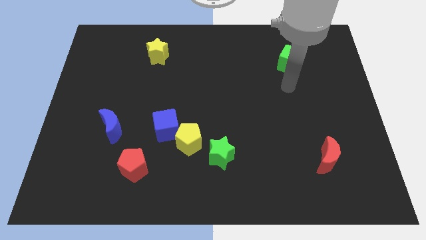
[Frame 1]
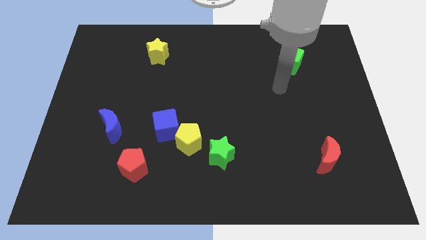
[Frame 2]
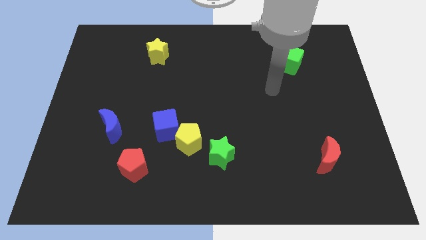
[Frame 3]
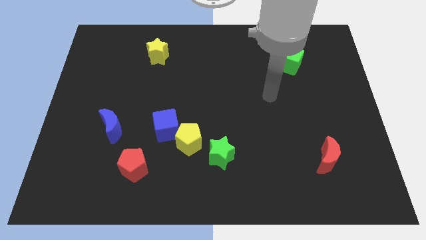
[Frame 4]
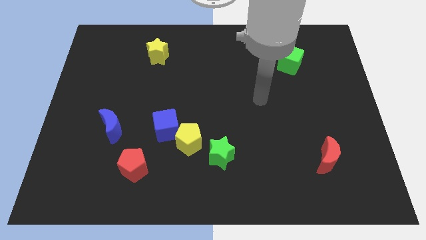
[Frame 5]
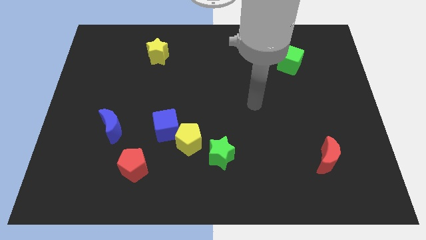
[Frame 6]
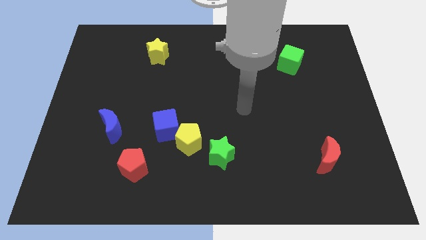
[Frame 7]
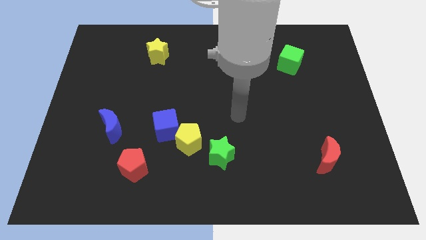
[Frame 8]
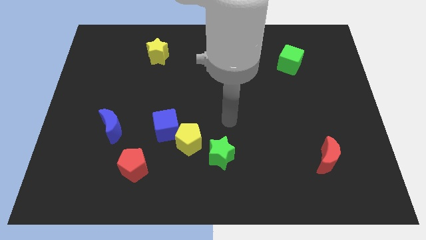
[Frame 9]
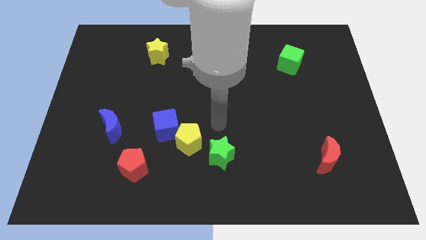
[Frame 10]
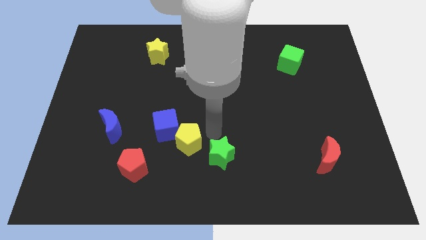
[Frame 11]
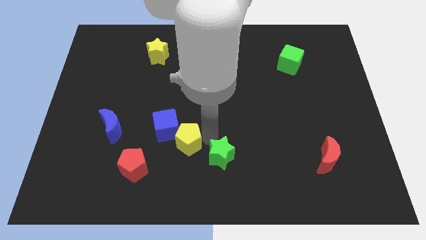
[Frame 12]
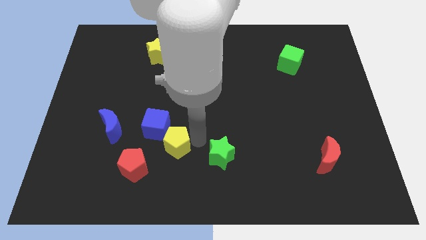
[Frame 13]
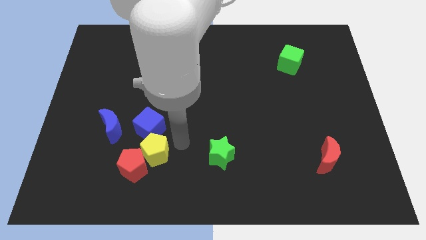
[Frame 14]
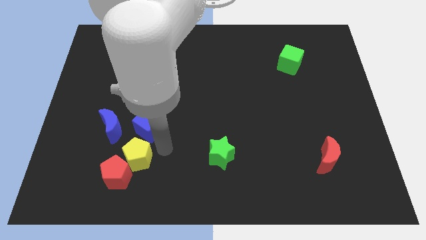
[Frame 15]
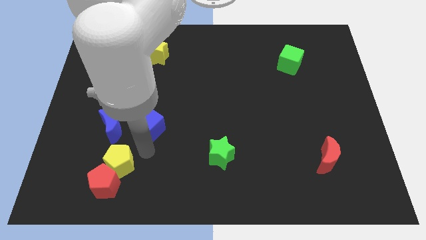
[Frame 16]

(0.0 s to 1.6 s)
pull the blue cube apart from the yellow pentagon

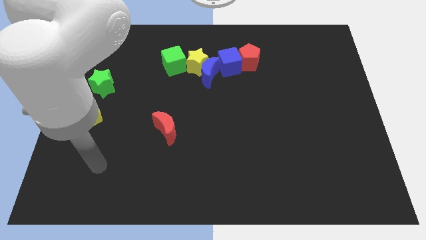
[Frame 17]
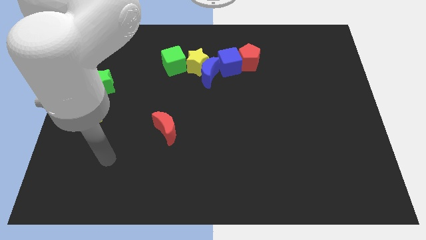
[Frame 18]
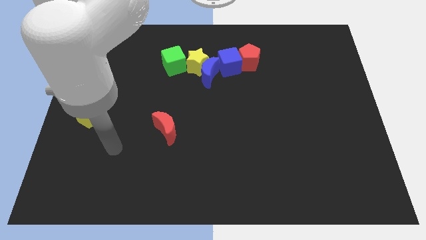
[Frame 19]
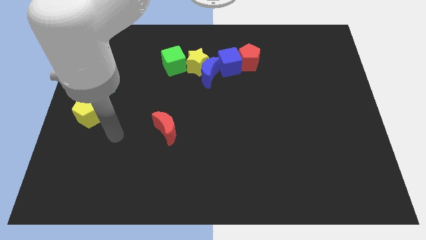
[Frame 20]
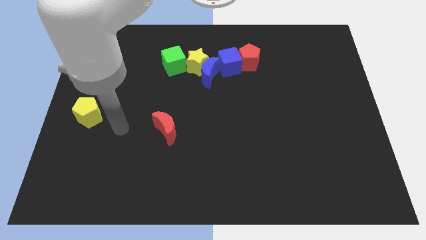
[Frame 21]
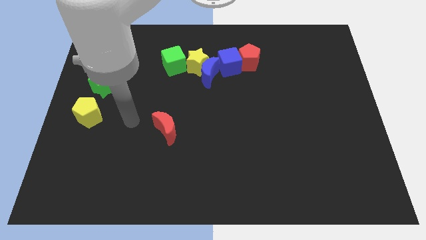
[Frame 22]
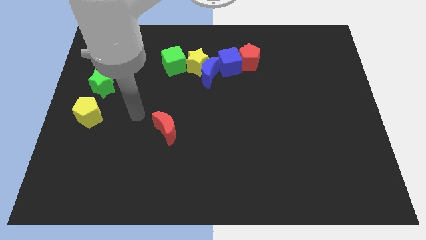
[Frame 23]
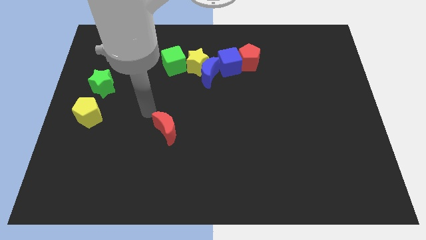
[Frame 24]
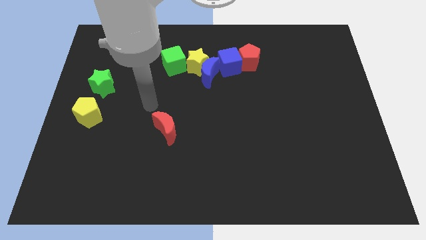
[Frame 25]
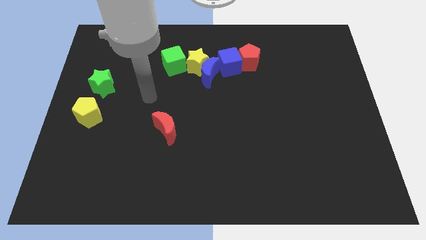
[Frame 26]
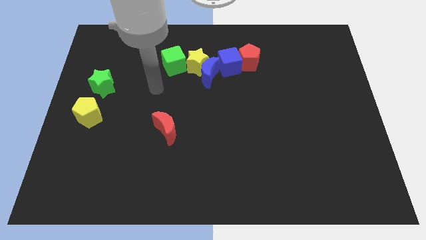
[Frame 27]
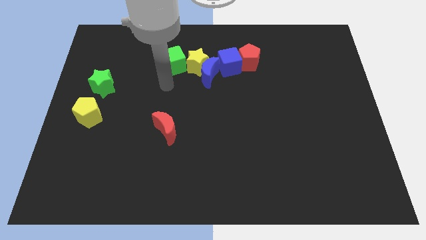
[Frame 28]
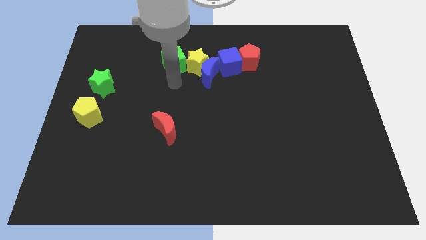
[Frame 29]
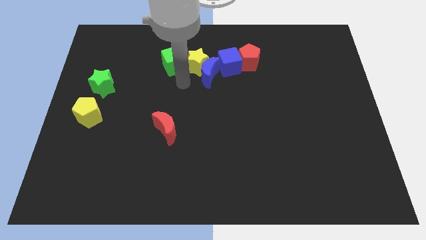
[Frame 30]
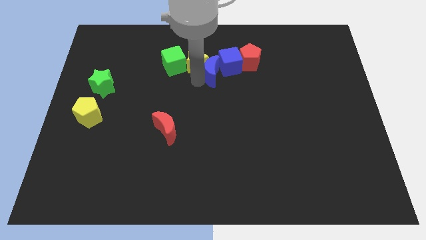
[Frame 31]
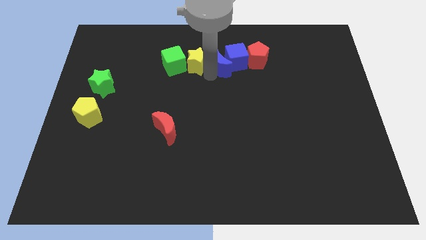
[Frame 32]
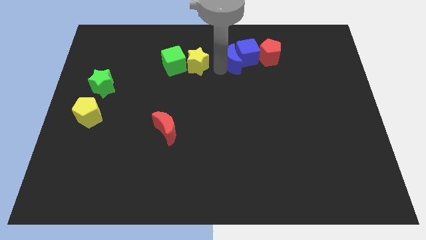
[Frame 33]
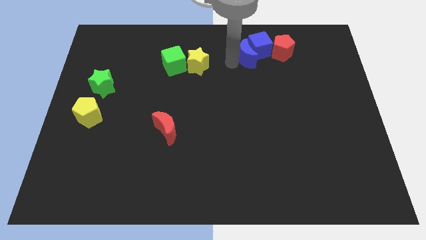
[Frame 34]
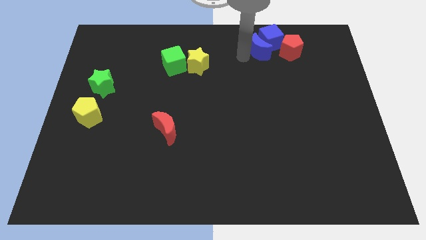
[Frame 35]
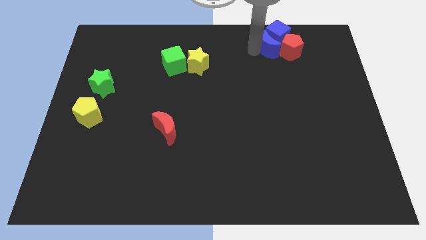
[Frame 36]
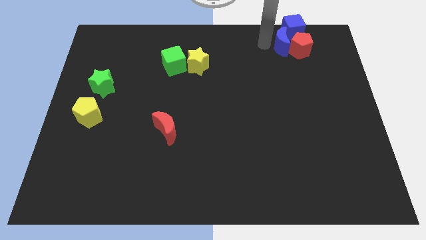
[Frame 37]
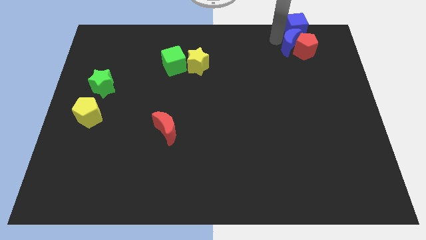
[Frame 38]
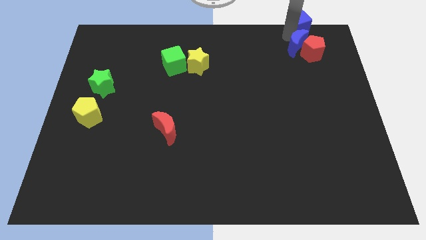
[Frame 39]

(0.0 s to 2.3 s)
separate the red pentagon from the blue cube

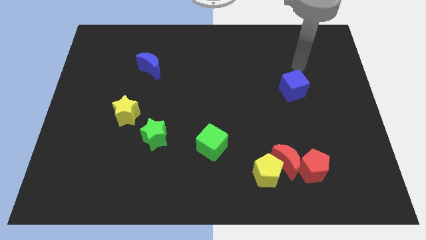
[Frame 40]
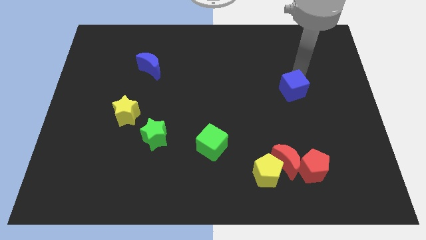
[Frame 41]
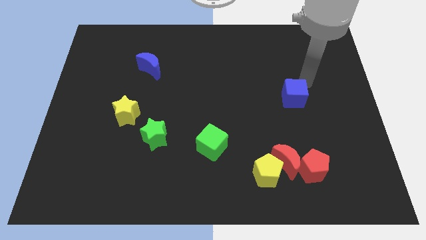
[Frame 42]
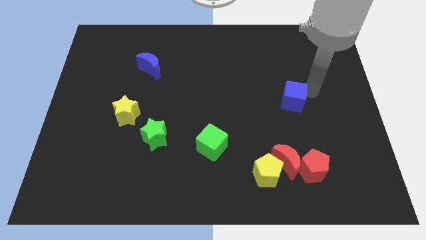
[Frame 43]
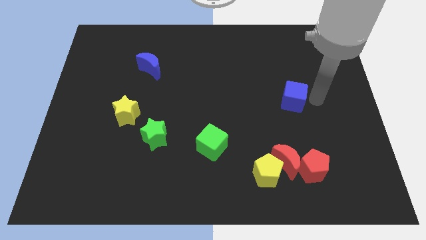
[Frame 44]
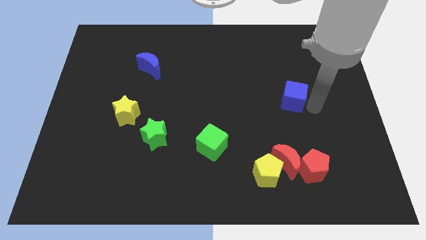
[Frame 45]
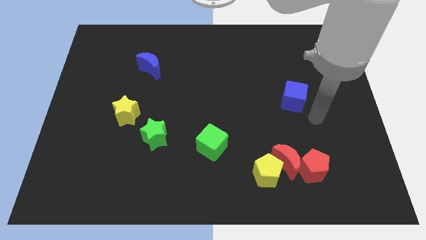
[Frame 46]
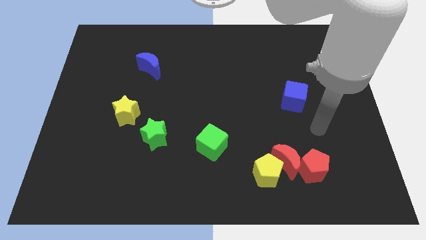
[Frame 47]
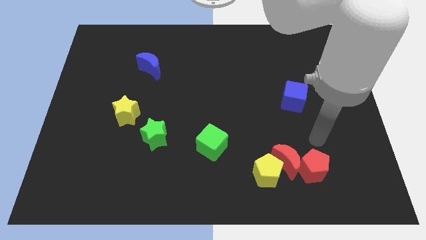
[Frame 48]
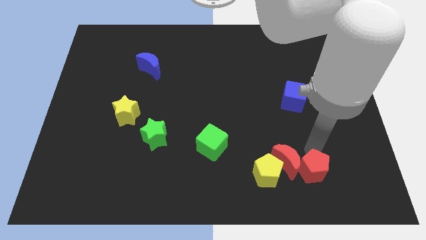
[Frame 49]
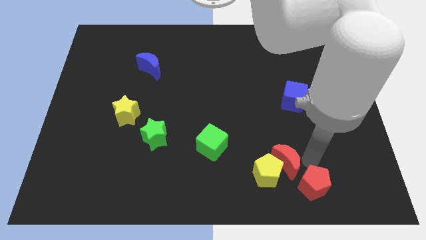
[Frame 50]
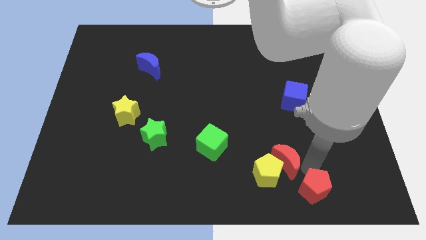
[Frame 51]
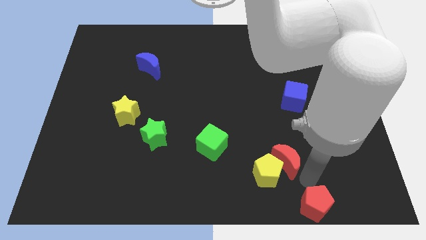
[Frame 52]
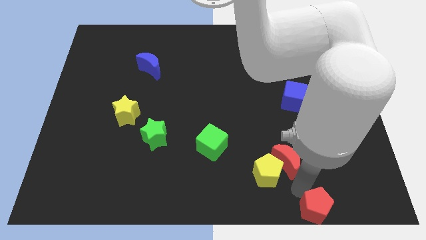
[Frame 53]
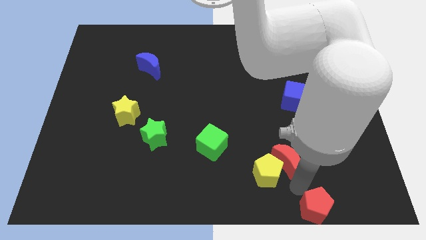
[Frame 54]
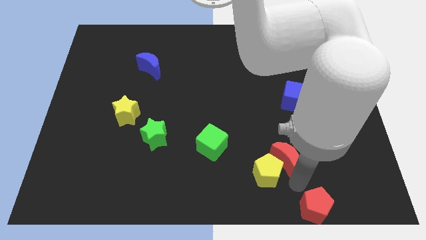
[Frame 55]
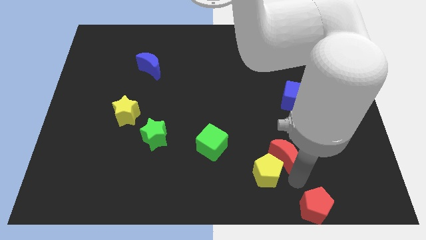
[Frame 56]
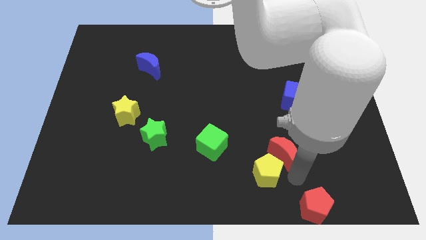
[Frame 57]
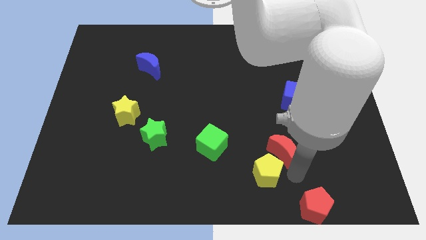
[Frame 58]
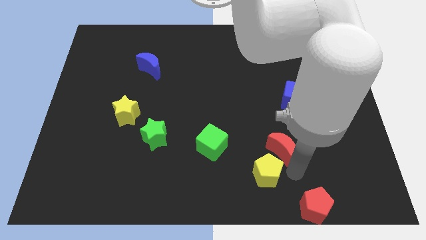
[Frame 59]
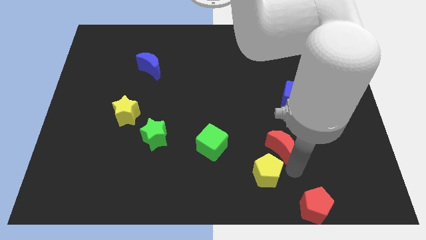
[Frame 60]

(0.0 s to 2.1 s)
move the red moon away from the yellow pentagon and red pentagon

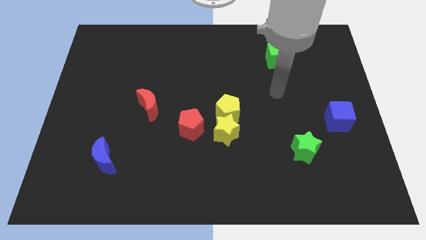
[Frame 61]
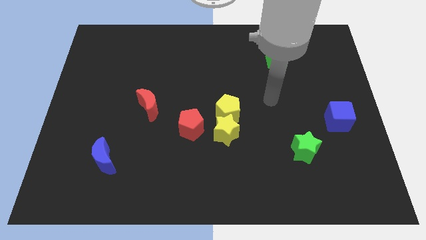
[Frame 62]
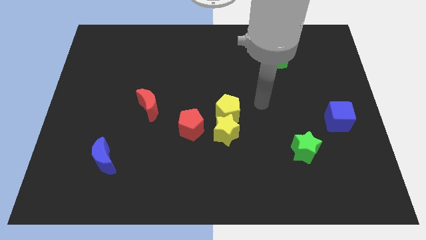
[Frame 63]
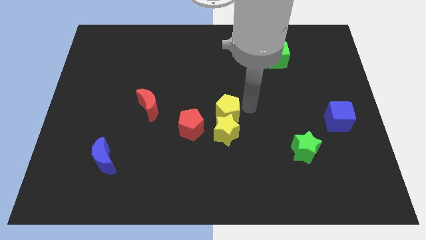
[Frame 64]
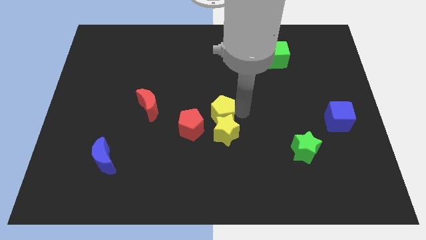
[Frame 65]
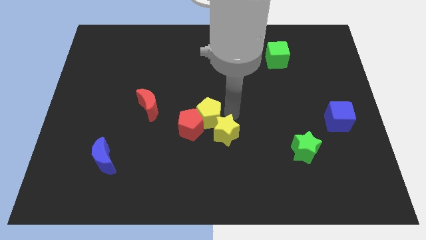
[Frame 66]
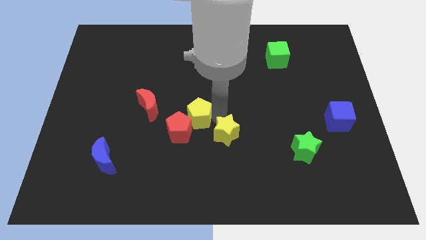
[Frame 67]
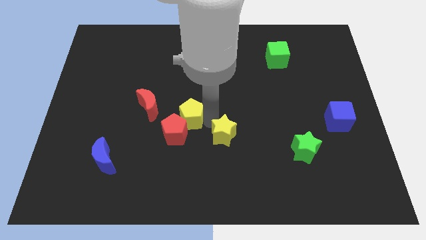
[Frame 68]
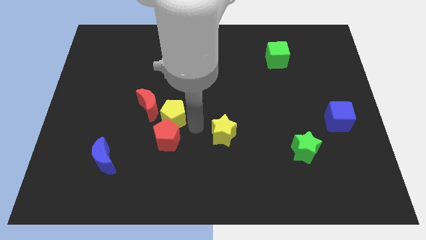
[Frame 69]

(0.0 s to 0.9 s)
move the yellow star away from the yellow pentagon and red pentagon

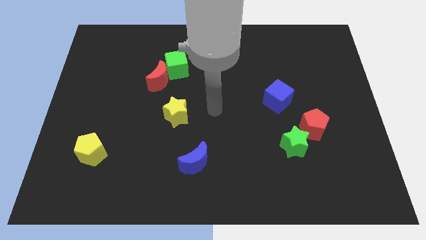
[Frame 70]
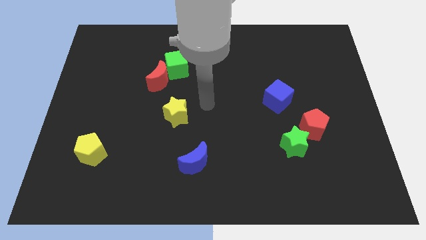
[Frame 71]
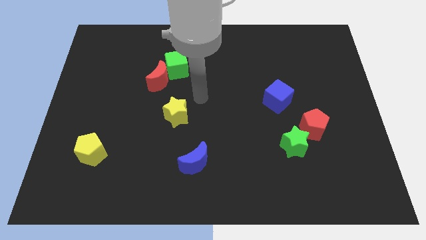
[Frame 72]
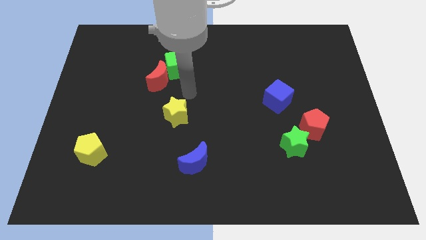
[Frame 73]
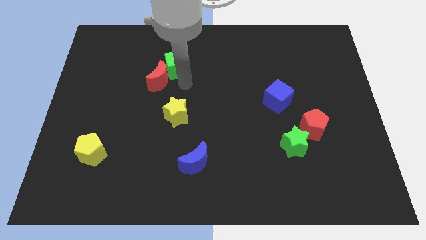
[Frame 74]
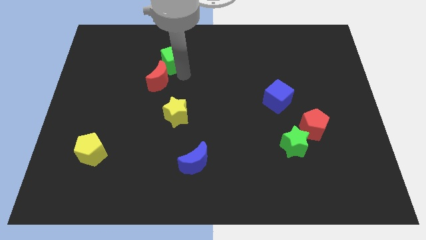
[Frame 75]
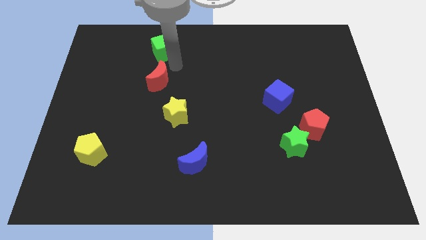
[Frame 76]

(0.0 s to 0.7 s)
separate the red moon from the green cube

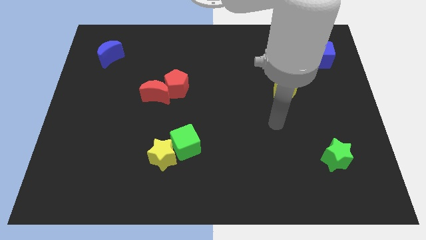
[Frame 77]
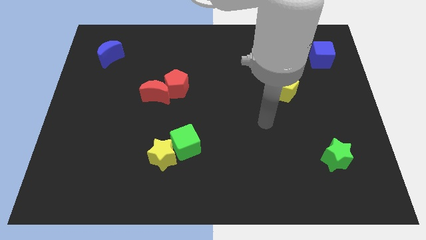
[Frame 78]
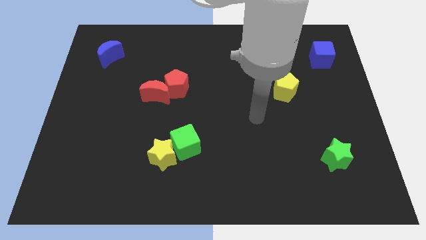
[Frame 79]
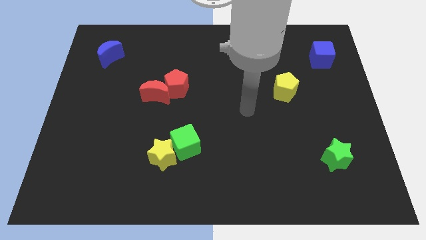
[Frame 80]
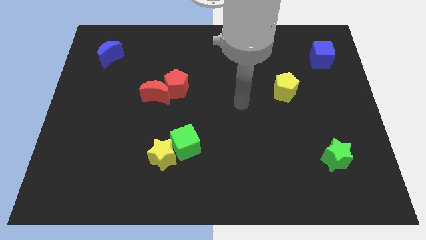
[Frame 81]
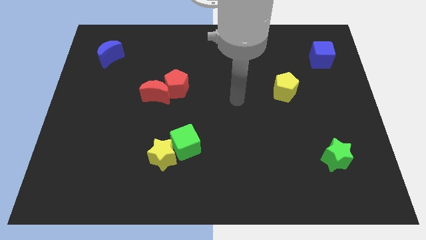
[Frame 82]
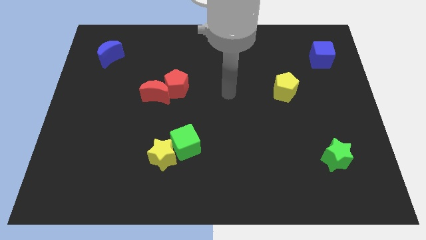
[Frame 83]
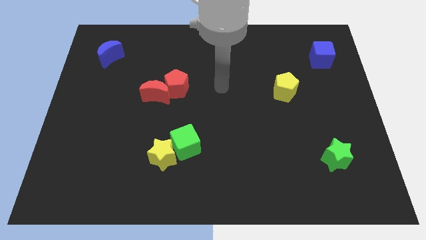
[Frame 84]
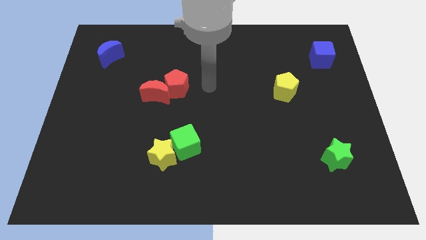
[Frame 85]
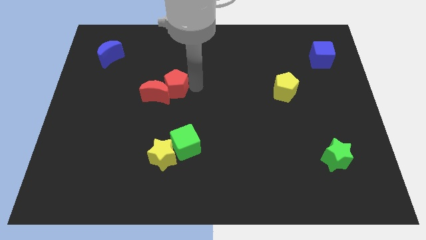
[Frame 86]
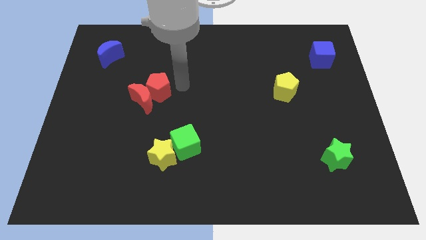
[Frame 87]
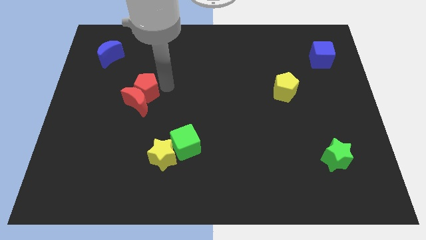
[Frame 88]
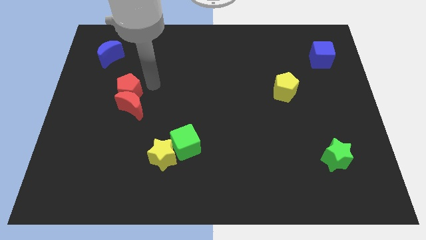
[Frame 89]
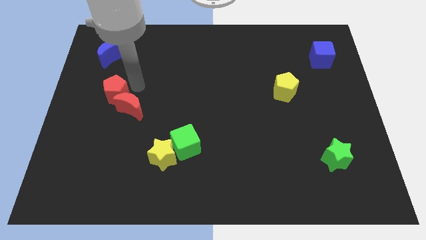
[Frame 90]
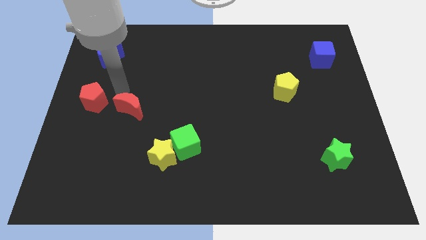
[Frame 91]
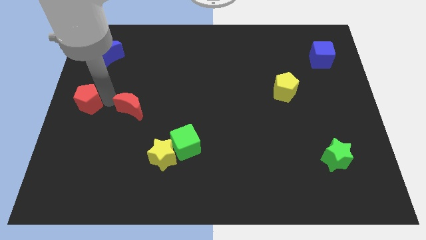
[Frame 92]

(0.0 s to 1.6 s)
separate the red moon from the red pentagon
